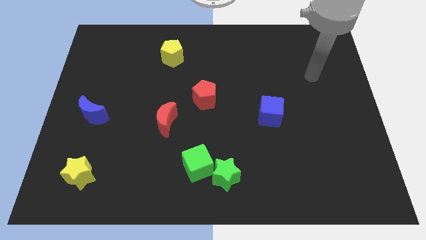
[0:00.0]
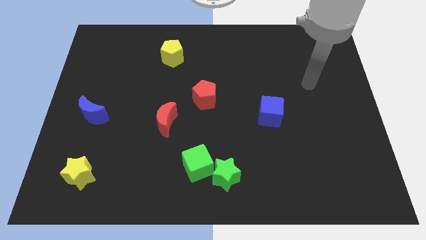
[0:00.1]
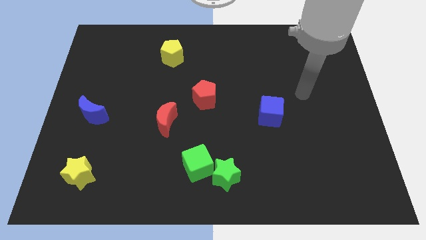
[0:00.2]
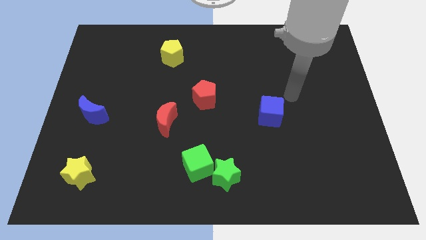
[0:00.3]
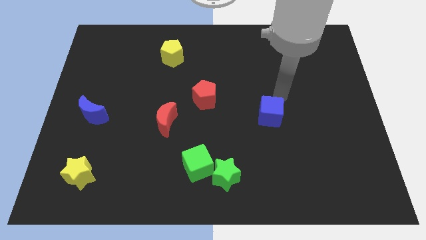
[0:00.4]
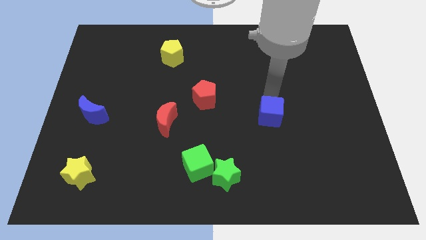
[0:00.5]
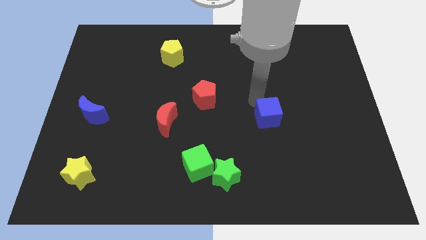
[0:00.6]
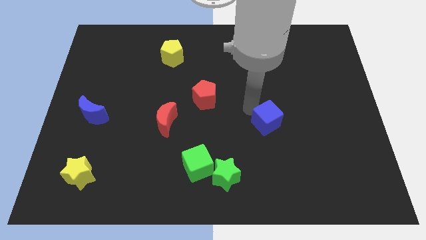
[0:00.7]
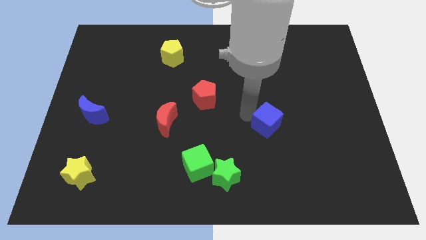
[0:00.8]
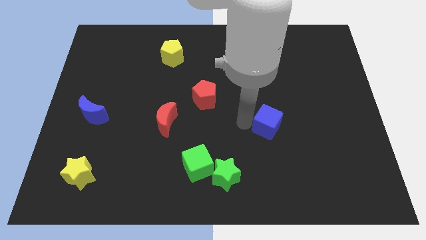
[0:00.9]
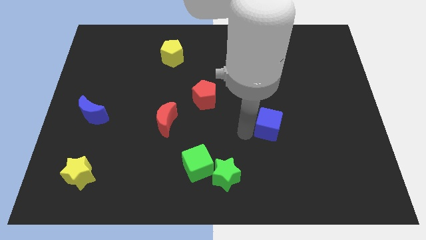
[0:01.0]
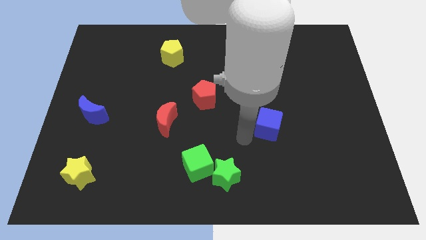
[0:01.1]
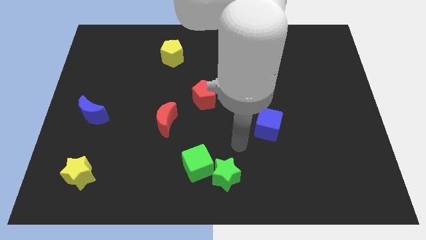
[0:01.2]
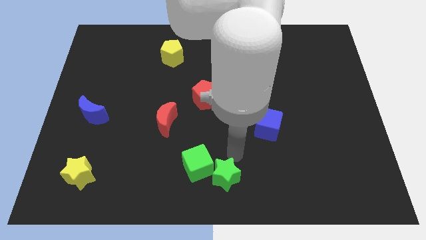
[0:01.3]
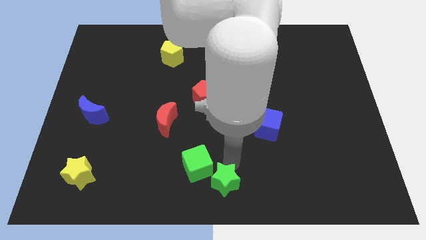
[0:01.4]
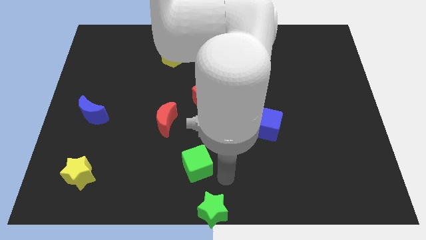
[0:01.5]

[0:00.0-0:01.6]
move the green cube away from the green star

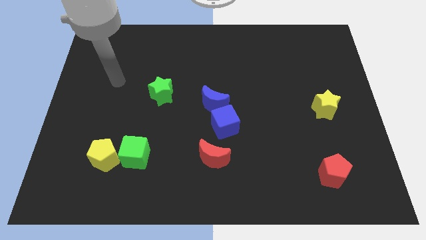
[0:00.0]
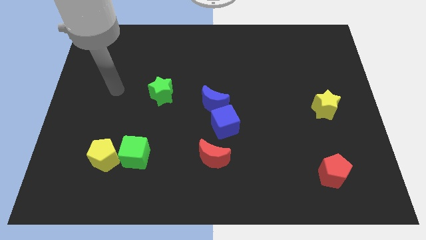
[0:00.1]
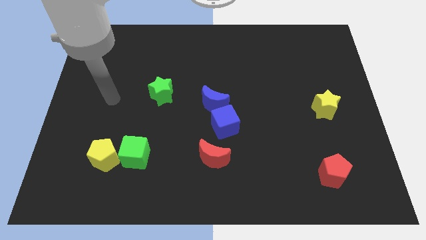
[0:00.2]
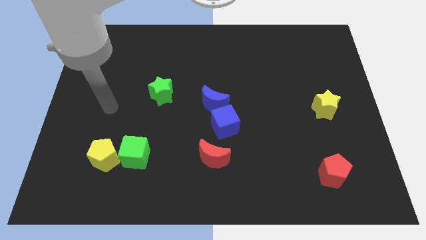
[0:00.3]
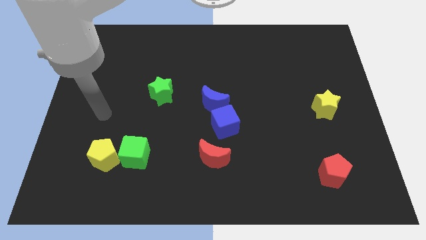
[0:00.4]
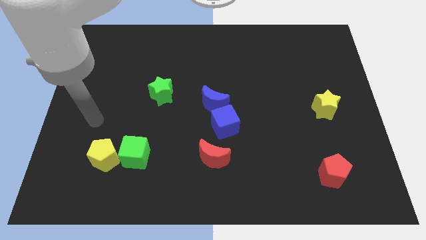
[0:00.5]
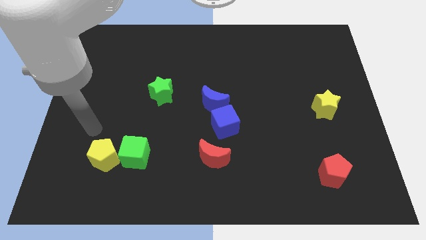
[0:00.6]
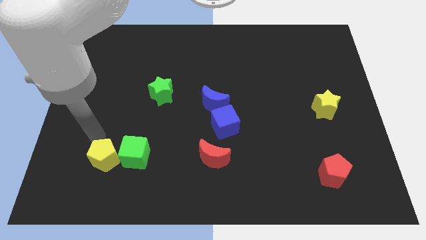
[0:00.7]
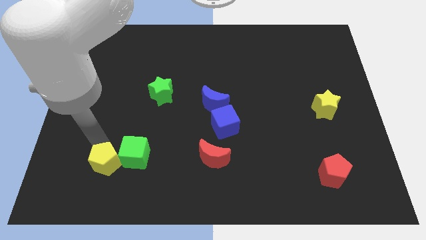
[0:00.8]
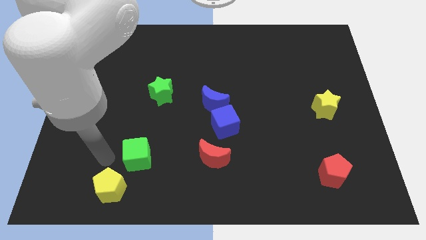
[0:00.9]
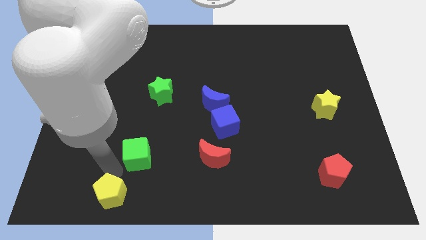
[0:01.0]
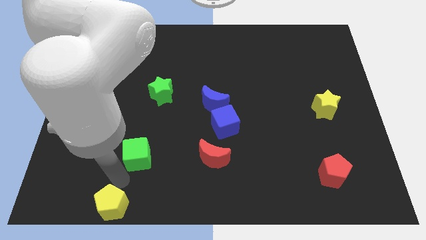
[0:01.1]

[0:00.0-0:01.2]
pull the green cube apart from the yellow pentagon

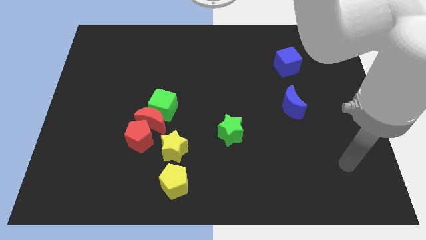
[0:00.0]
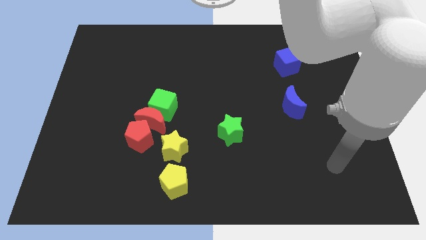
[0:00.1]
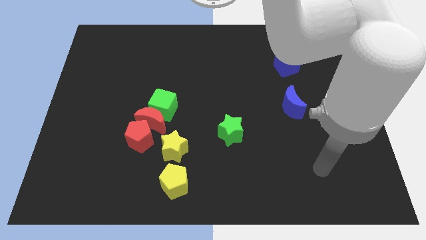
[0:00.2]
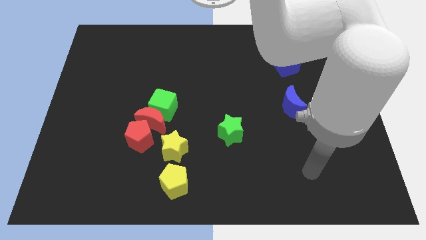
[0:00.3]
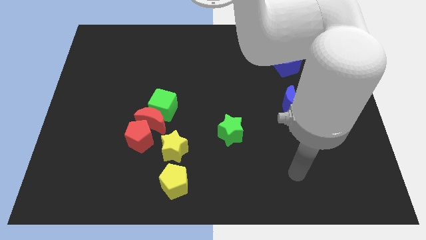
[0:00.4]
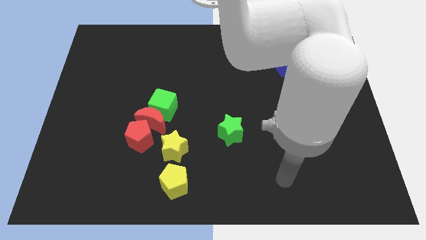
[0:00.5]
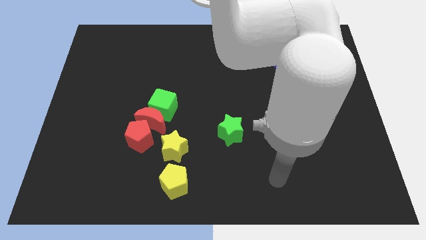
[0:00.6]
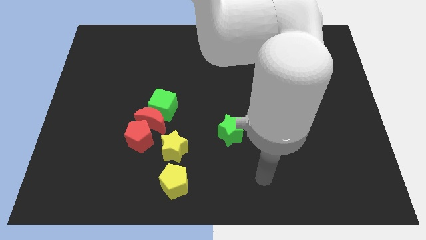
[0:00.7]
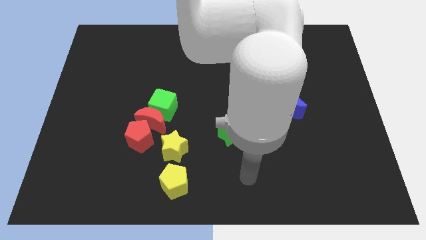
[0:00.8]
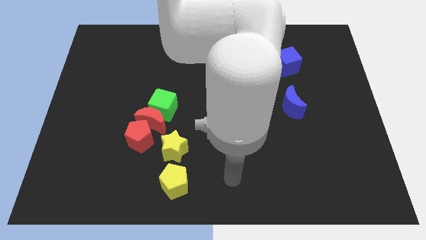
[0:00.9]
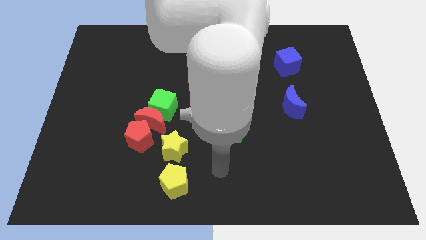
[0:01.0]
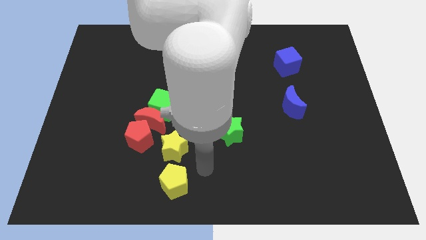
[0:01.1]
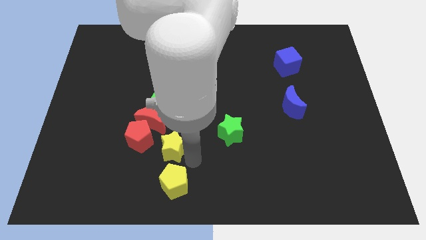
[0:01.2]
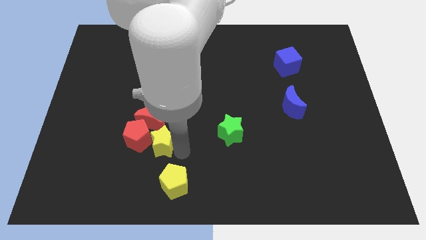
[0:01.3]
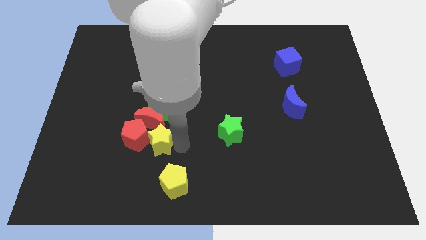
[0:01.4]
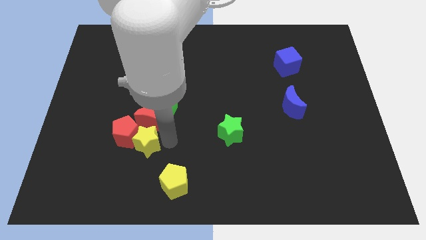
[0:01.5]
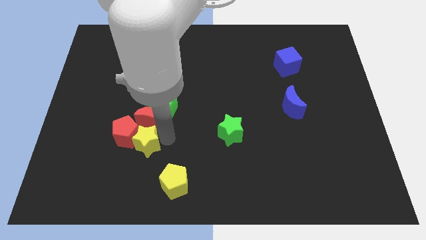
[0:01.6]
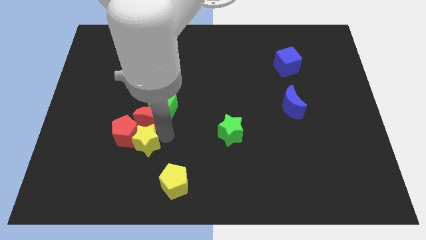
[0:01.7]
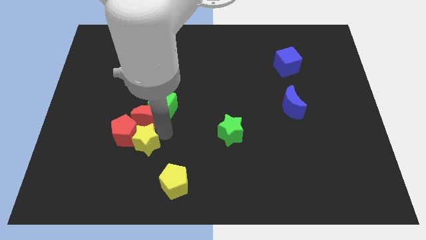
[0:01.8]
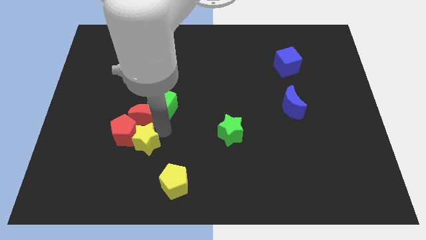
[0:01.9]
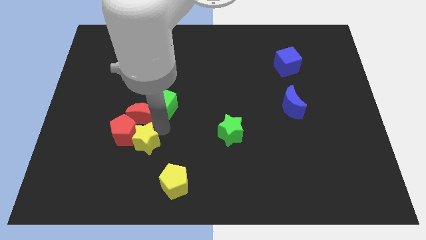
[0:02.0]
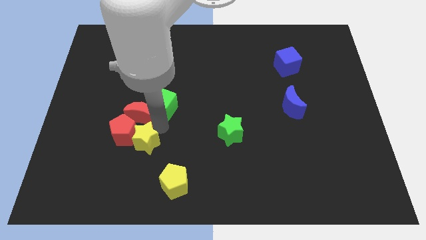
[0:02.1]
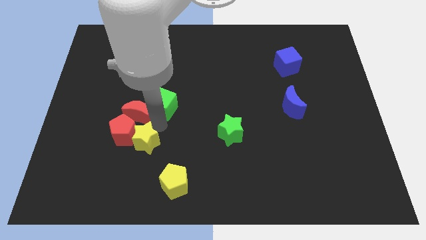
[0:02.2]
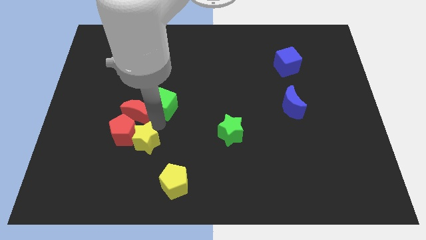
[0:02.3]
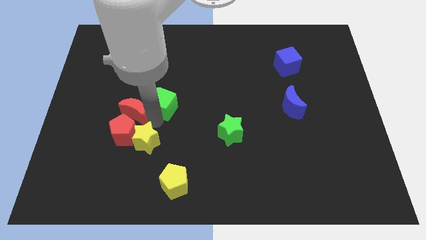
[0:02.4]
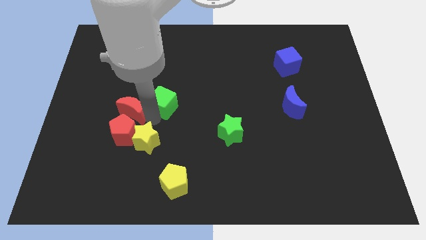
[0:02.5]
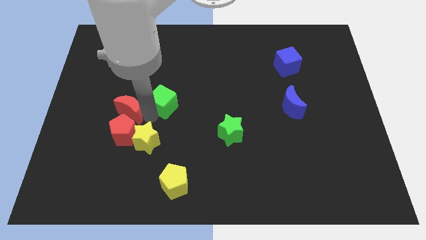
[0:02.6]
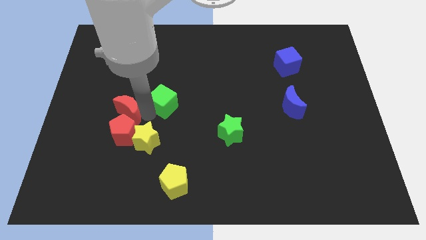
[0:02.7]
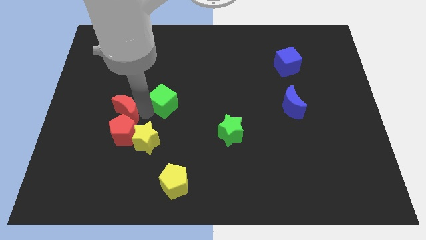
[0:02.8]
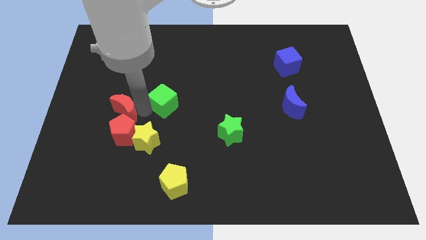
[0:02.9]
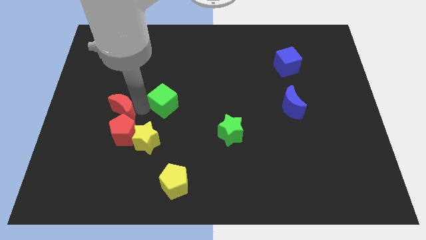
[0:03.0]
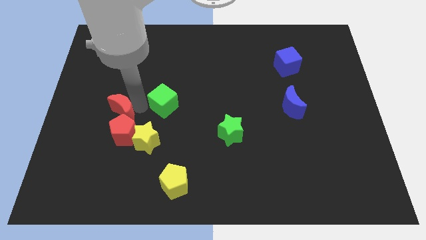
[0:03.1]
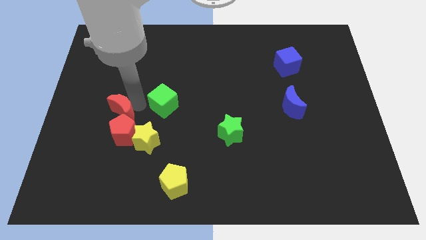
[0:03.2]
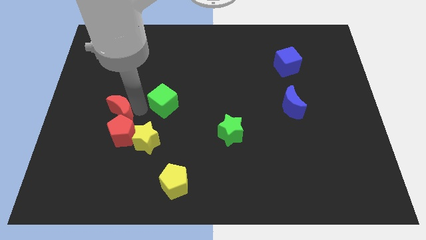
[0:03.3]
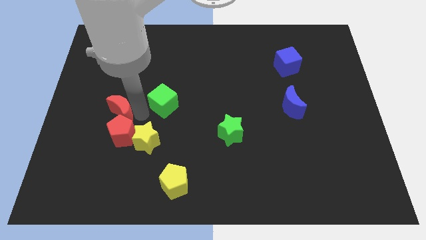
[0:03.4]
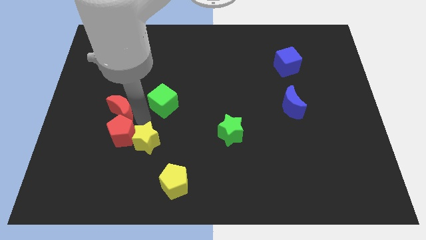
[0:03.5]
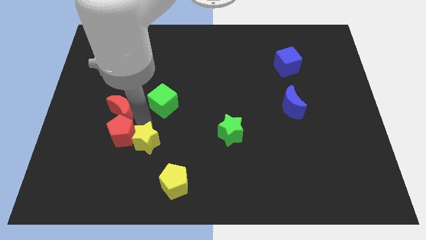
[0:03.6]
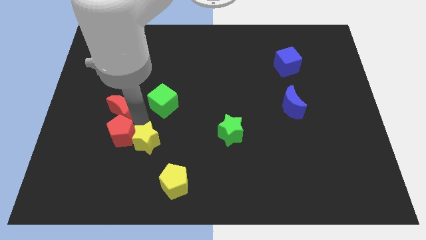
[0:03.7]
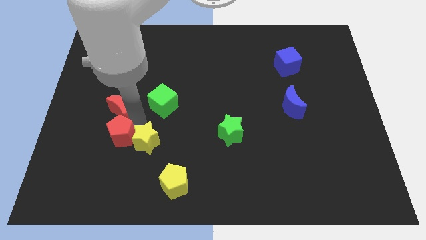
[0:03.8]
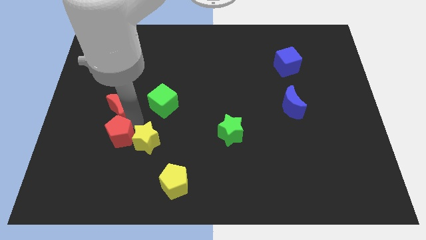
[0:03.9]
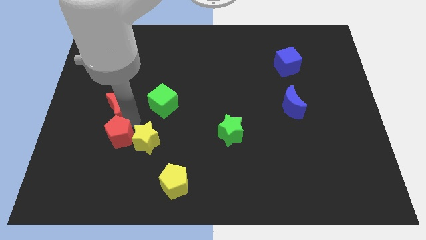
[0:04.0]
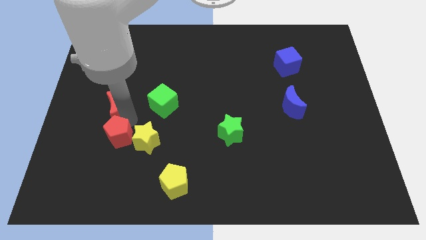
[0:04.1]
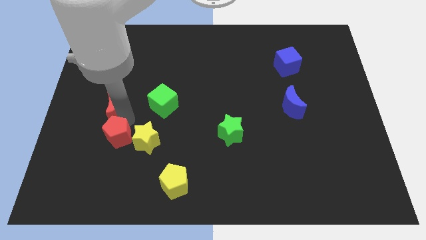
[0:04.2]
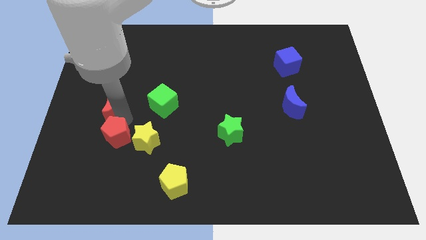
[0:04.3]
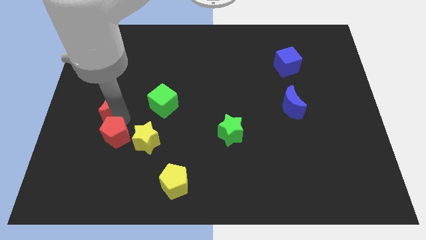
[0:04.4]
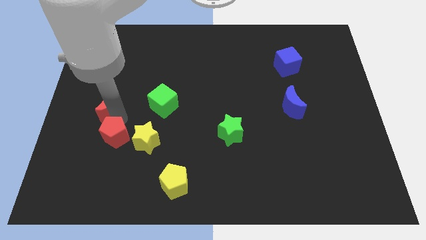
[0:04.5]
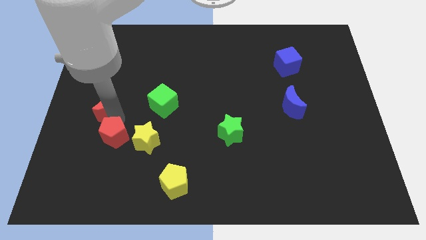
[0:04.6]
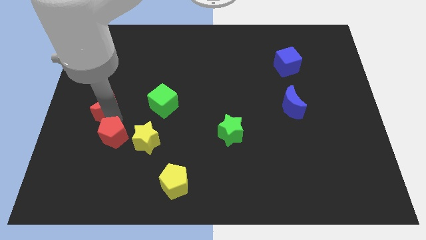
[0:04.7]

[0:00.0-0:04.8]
separate the red moon from the clump

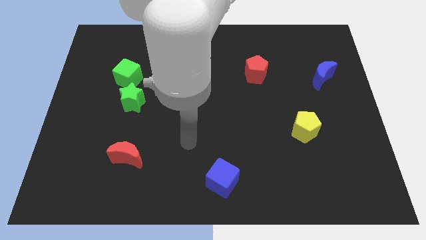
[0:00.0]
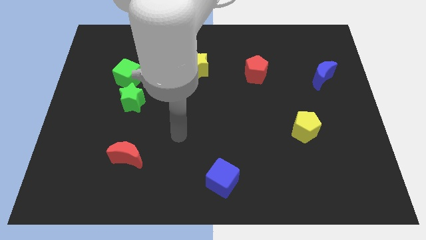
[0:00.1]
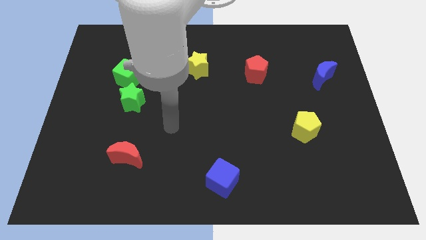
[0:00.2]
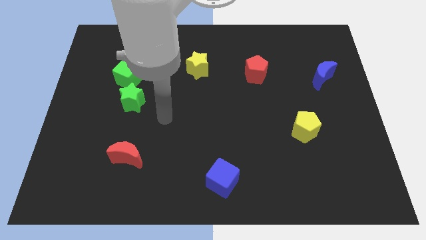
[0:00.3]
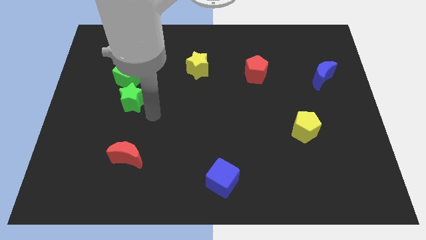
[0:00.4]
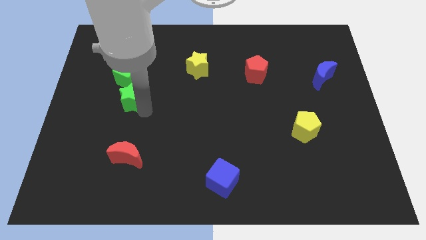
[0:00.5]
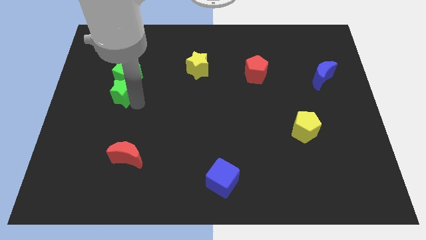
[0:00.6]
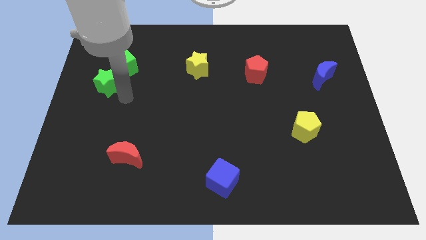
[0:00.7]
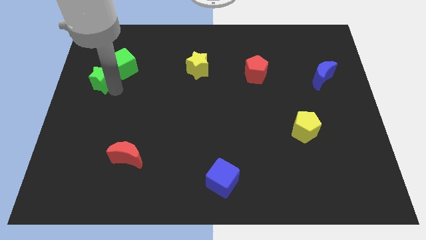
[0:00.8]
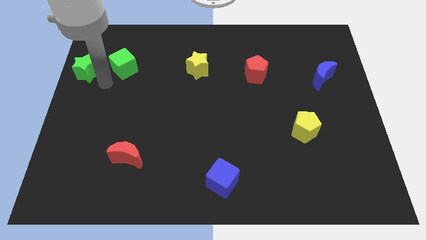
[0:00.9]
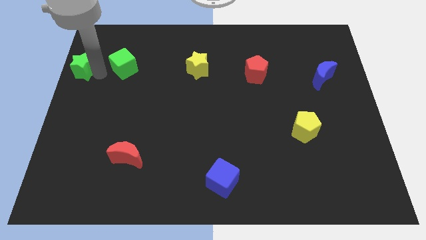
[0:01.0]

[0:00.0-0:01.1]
pull the green cube apart from the green star

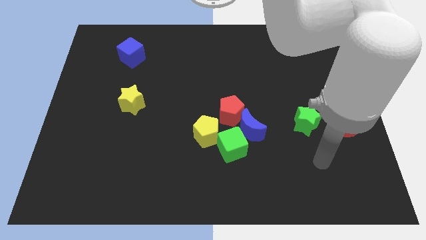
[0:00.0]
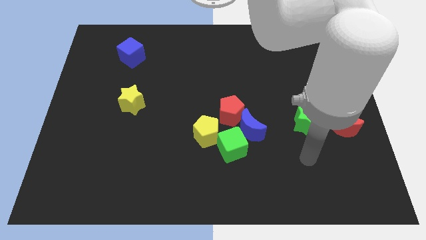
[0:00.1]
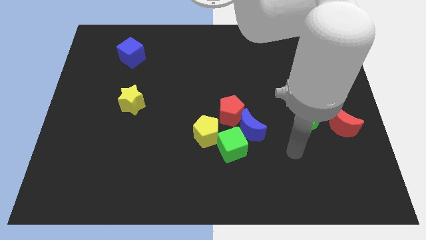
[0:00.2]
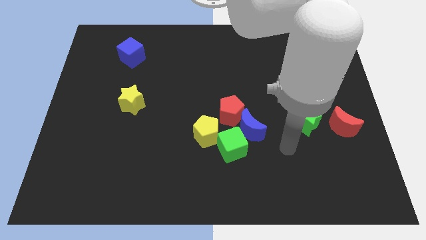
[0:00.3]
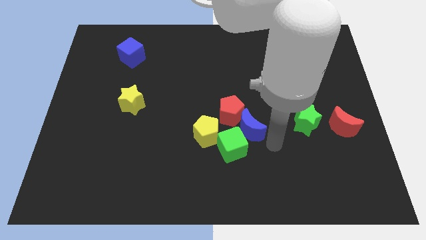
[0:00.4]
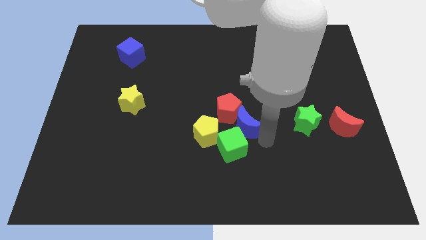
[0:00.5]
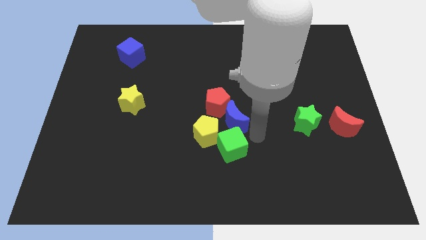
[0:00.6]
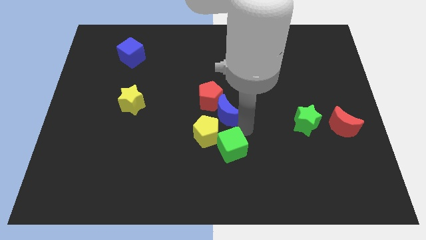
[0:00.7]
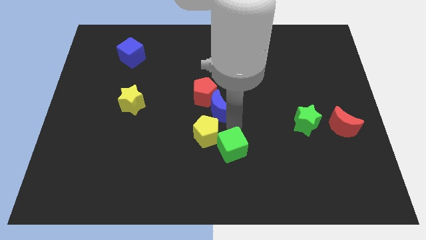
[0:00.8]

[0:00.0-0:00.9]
move the green cube away from the blue moon, yellow pentagon, and red pentagon
